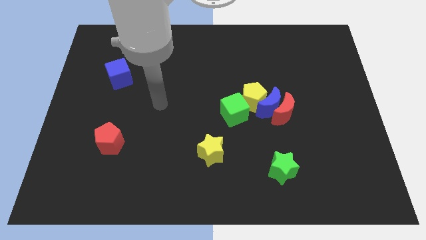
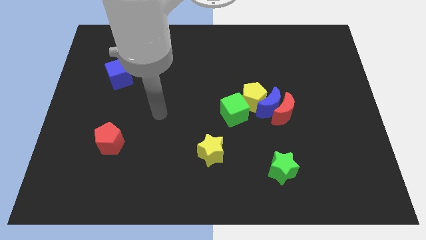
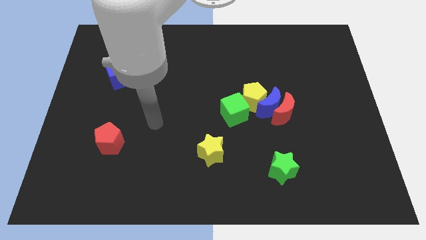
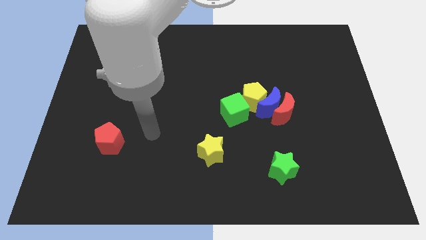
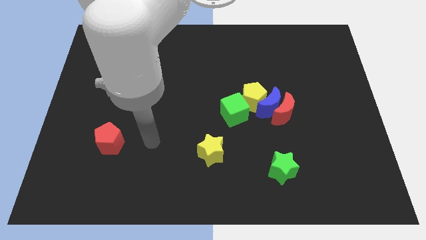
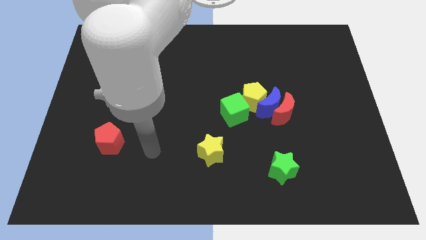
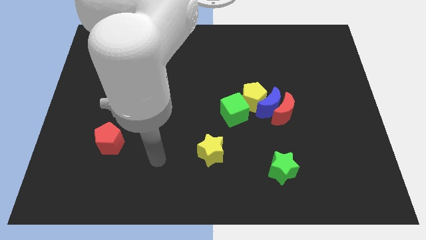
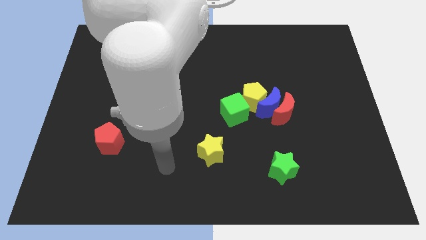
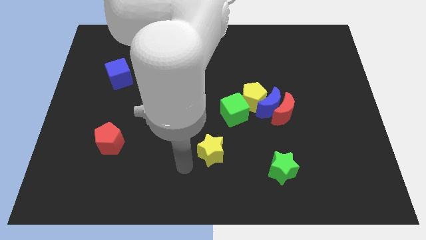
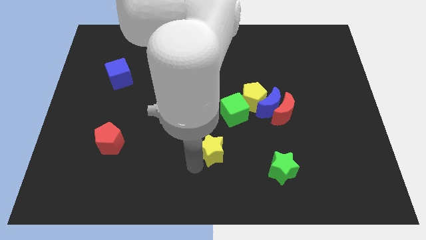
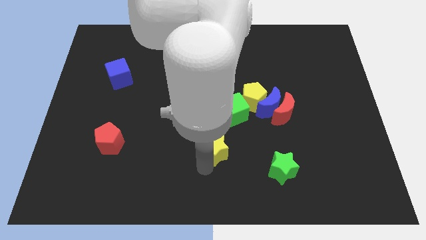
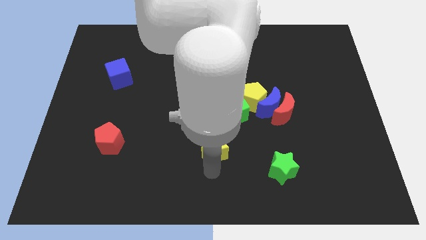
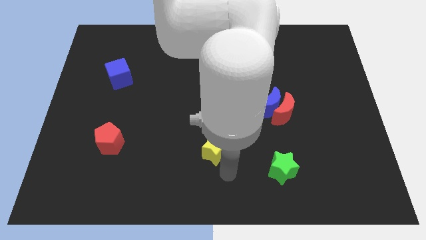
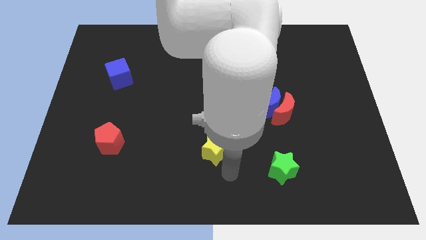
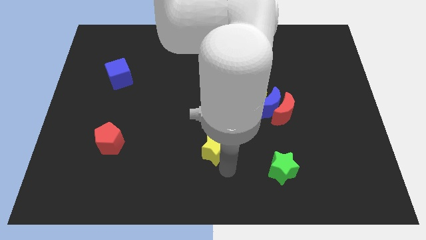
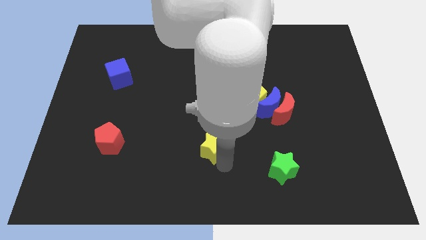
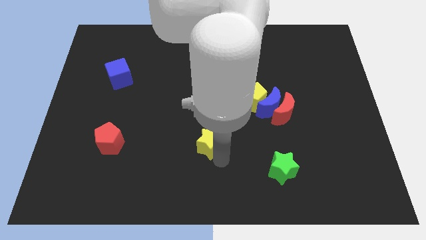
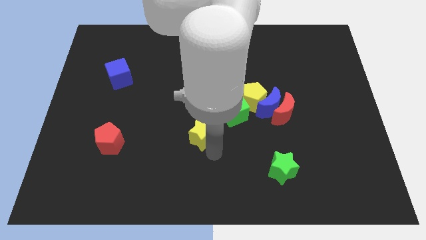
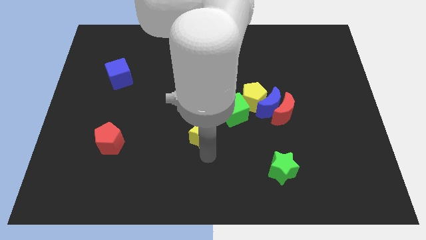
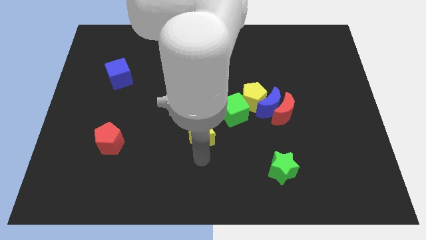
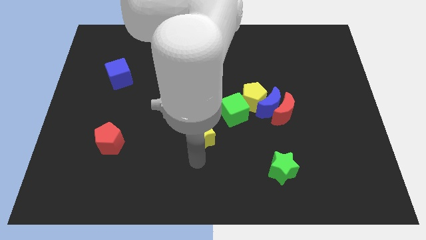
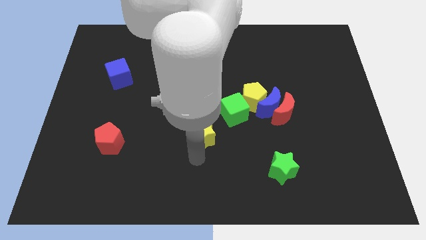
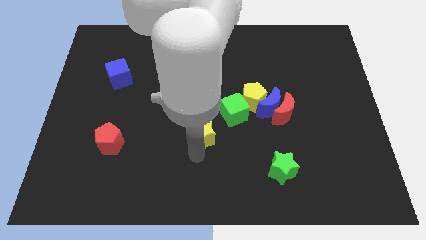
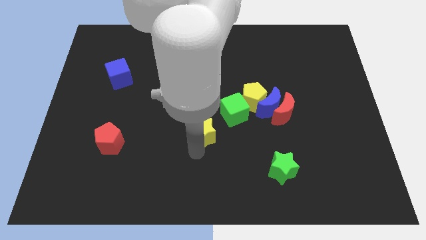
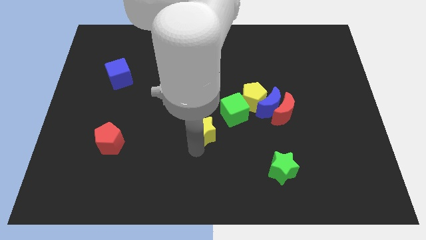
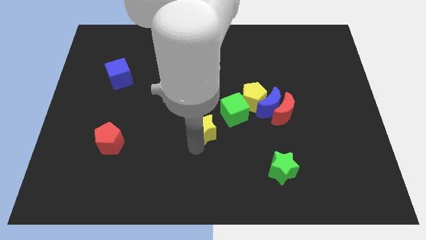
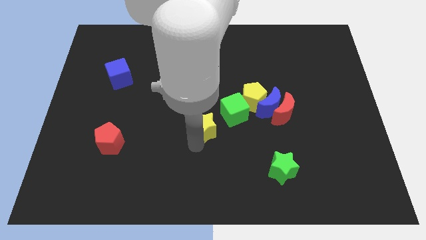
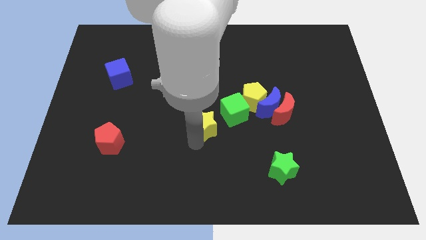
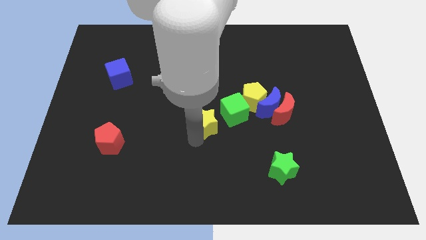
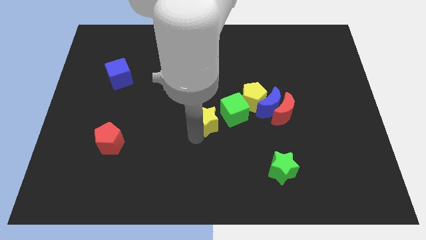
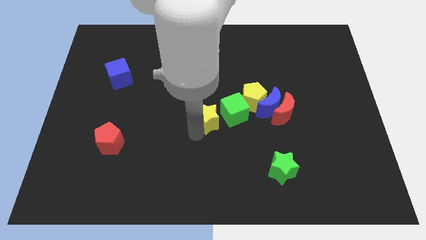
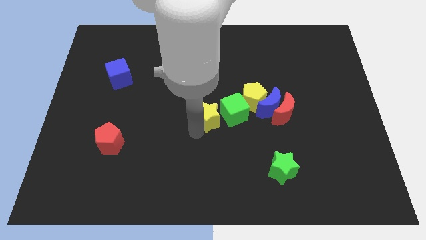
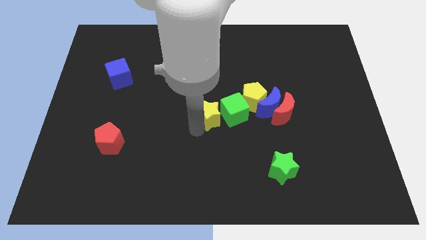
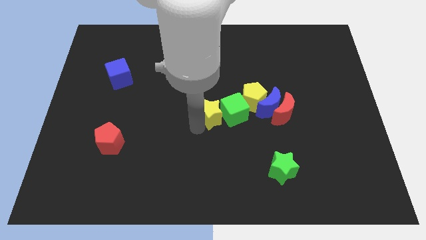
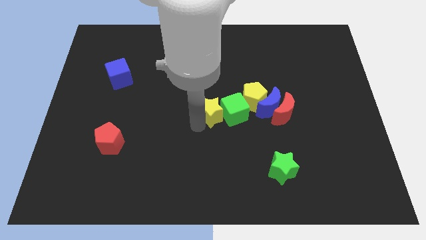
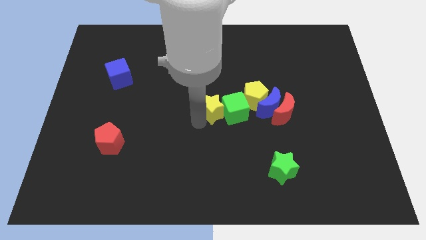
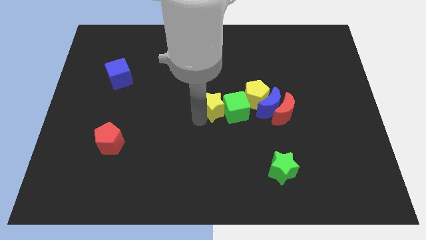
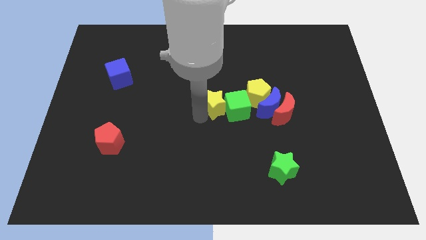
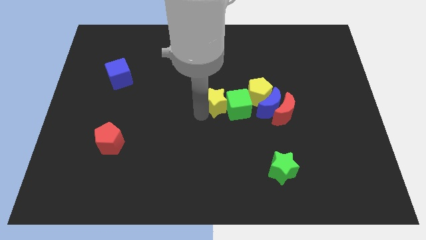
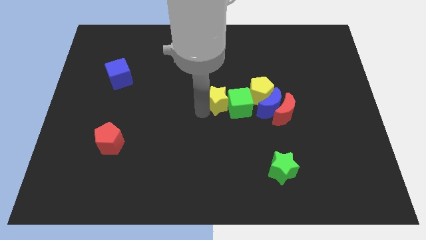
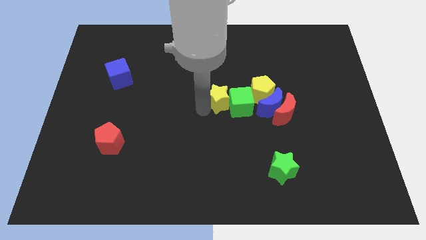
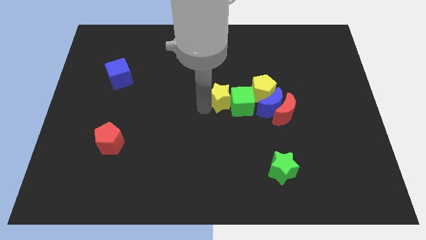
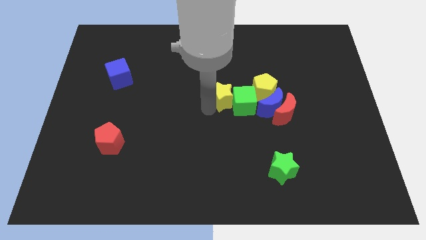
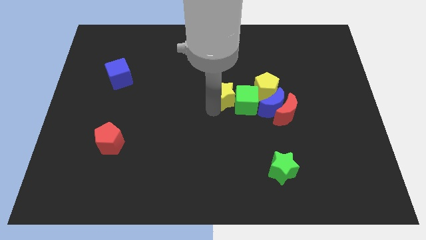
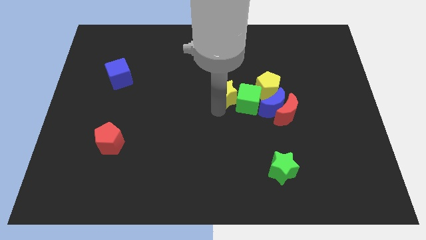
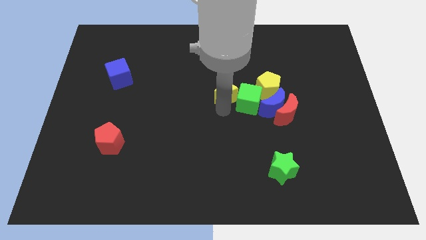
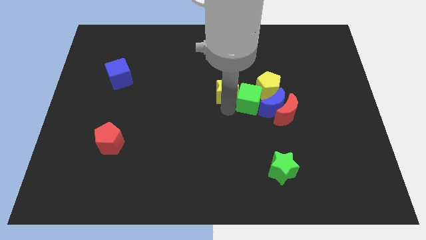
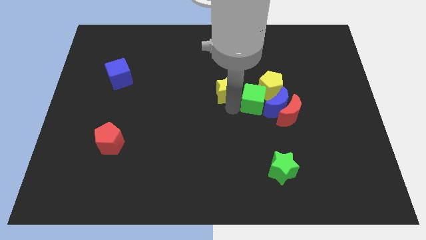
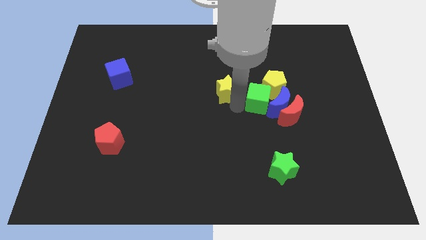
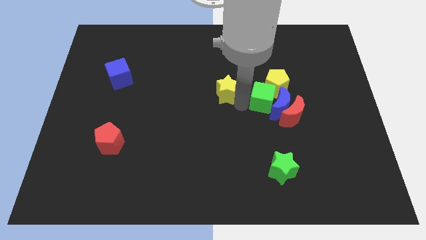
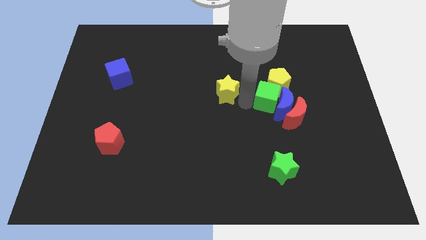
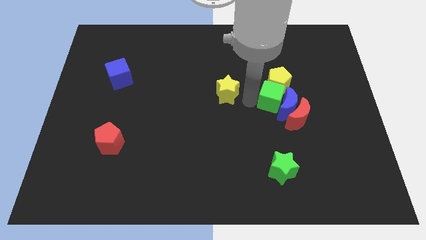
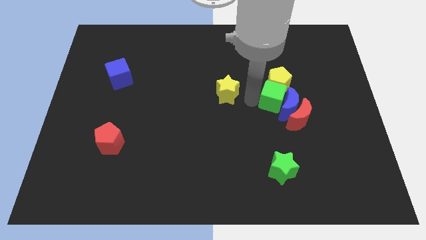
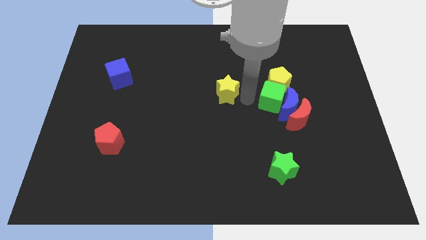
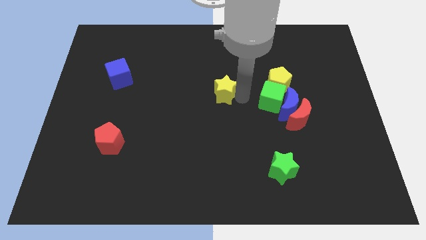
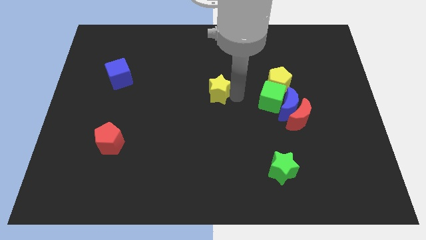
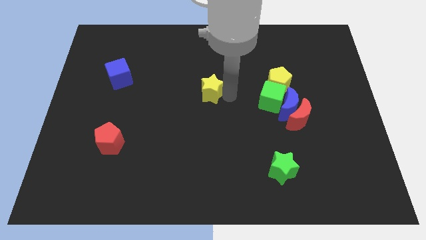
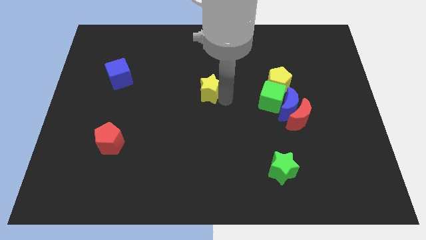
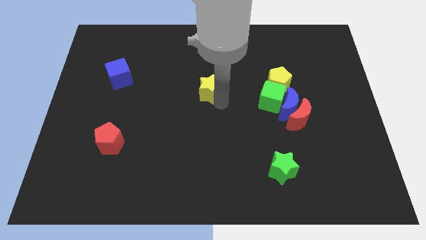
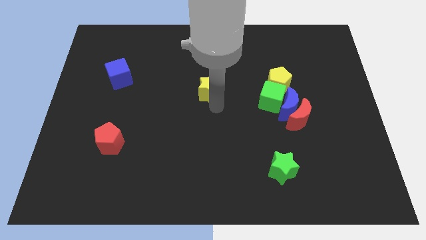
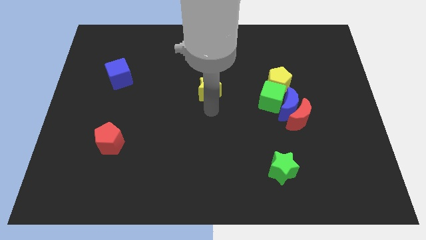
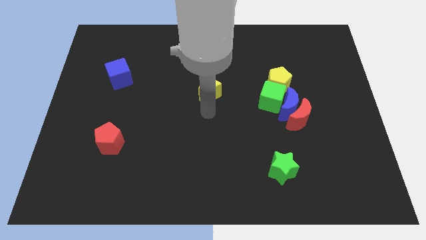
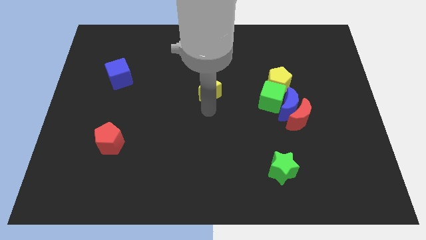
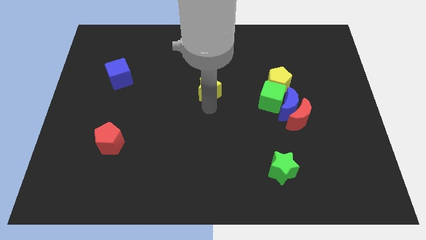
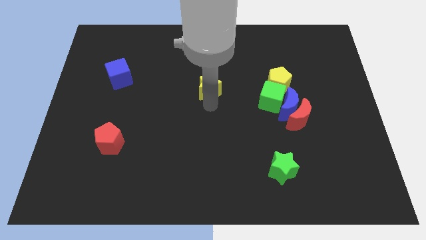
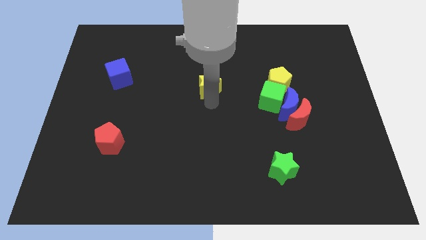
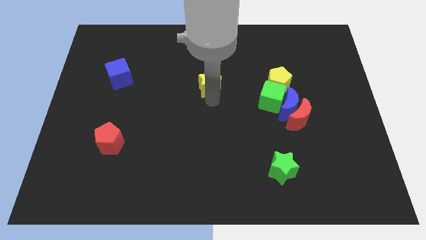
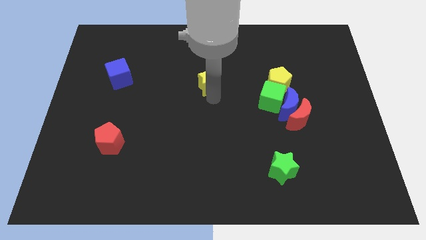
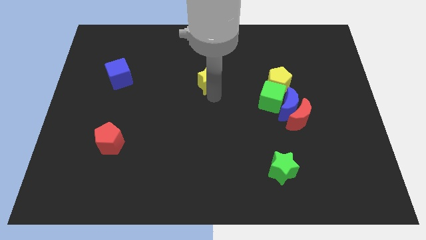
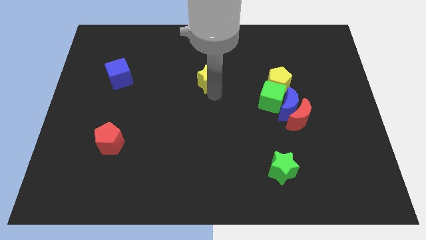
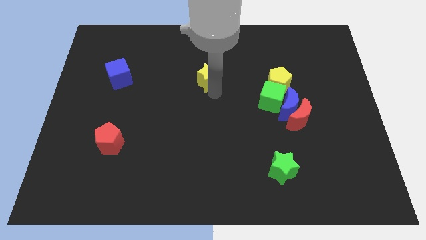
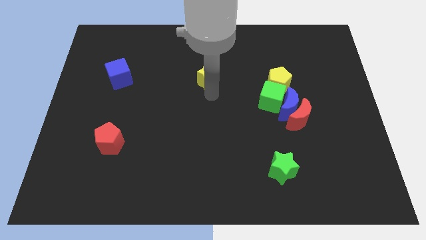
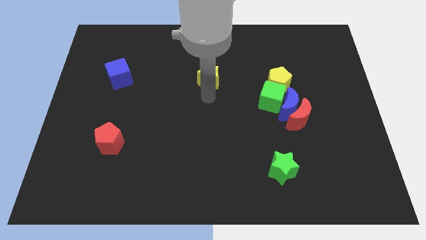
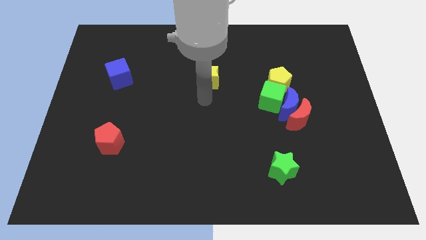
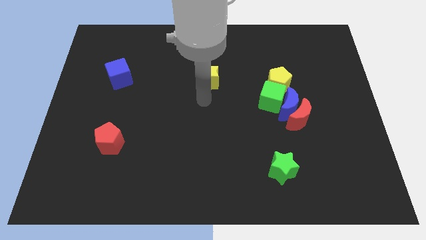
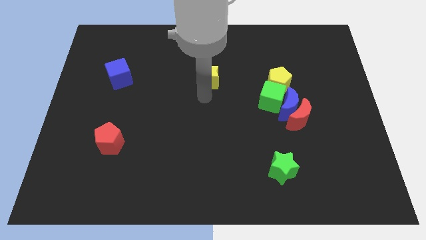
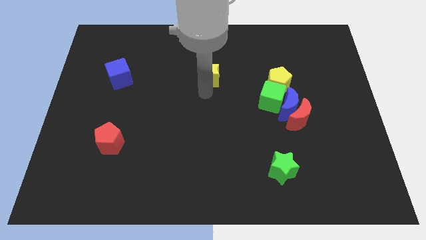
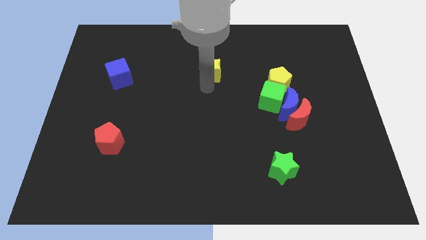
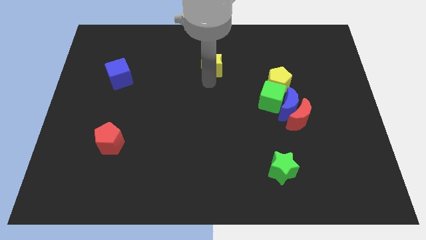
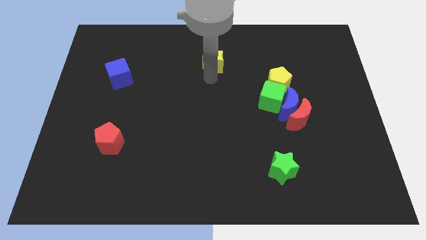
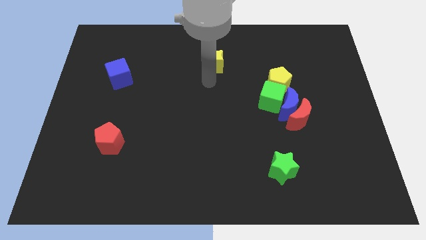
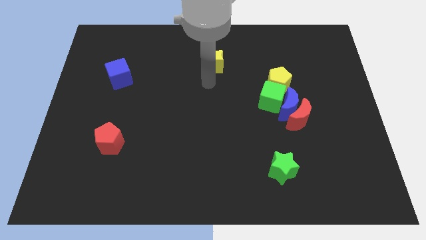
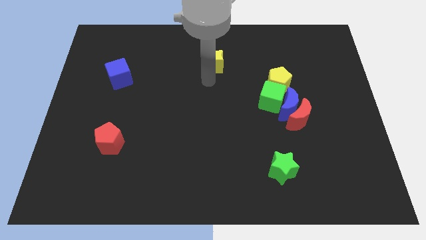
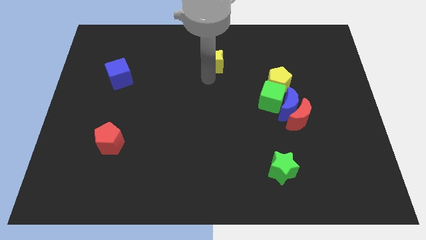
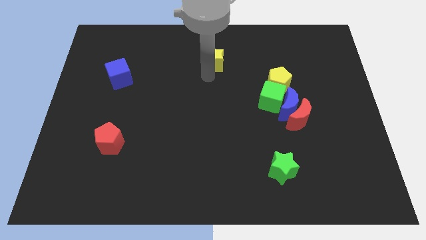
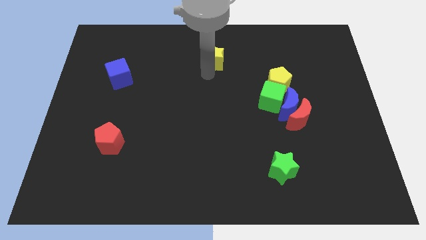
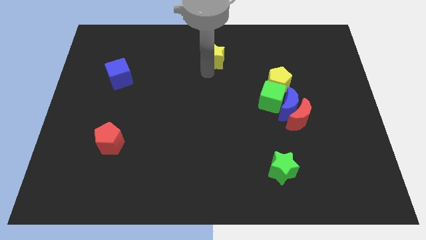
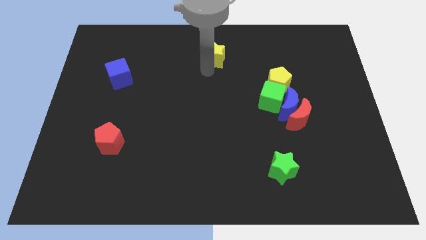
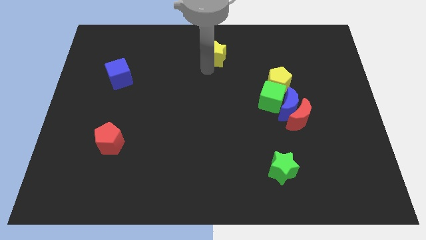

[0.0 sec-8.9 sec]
push the yellow star to the top side
